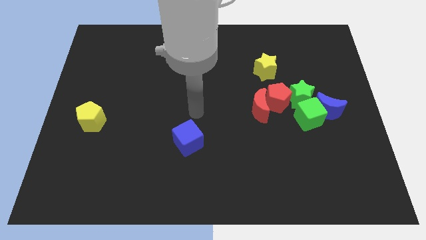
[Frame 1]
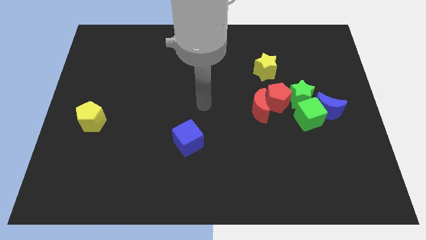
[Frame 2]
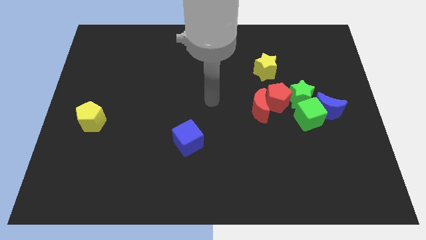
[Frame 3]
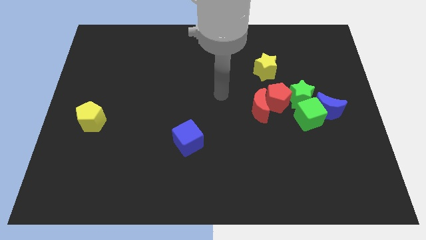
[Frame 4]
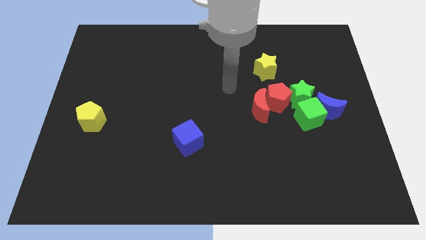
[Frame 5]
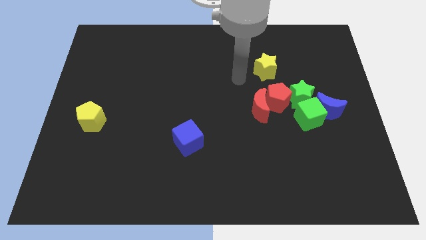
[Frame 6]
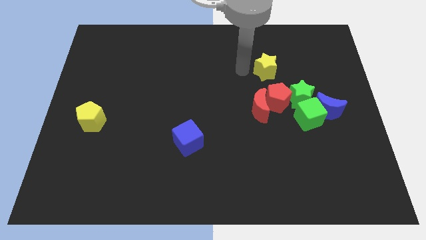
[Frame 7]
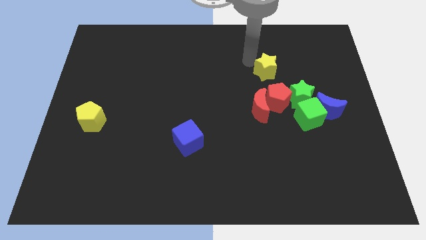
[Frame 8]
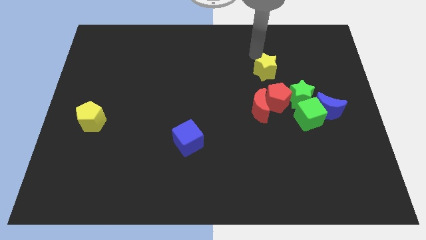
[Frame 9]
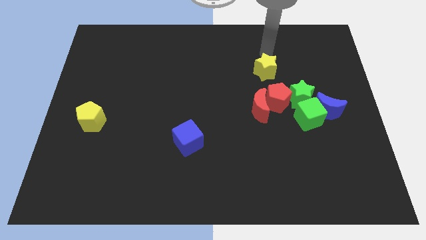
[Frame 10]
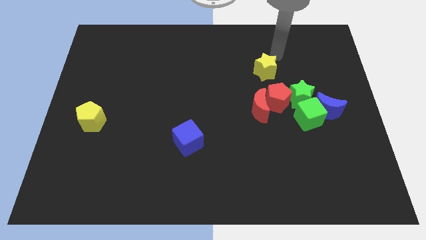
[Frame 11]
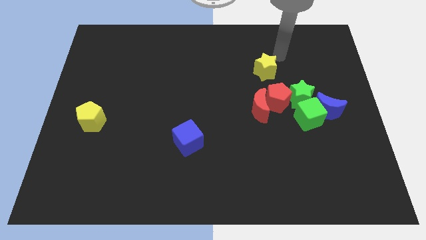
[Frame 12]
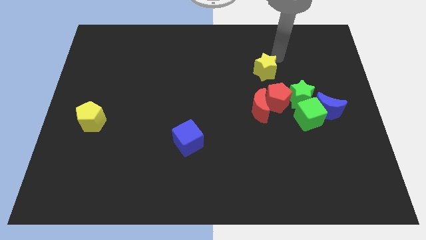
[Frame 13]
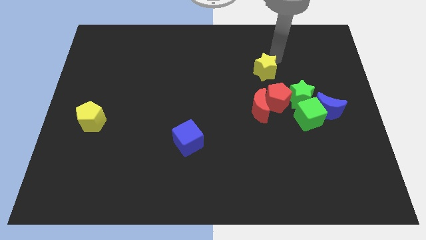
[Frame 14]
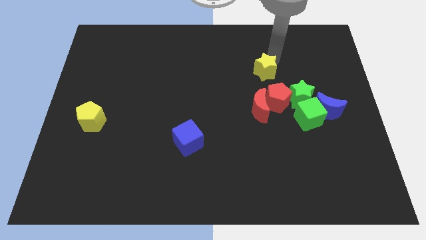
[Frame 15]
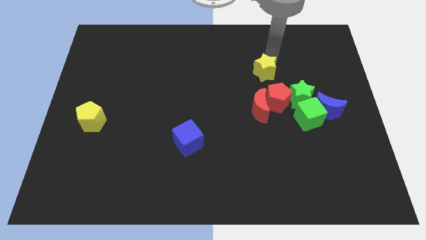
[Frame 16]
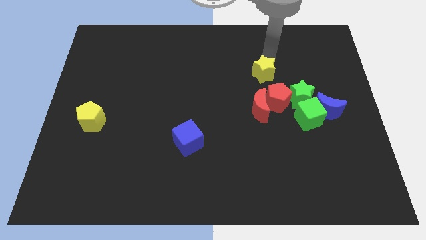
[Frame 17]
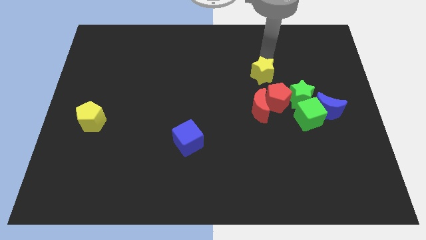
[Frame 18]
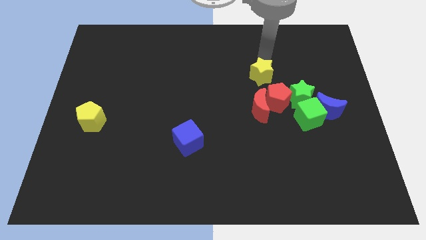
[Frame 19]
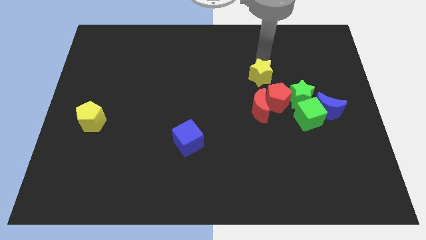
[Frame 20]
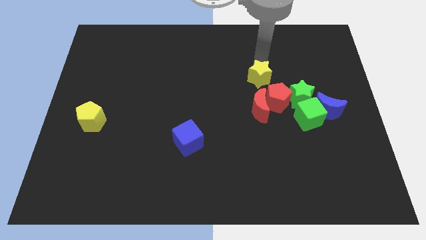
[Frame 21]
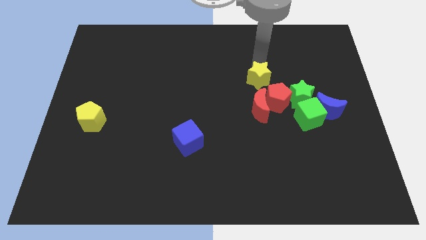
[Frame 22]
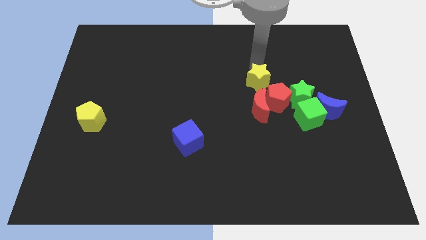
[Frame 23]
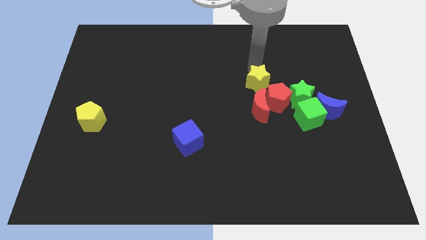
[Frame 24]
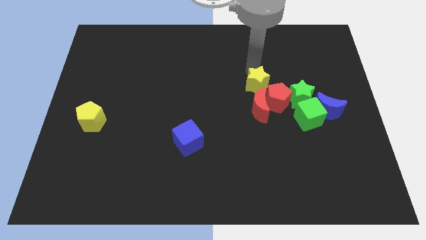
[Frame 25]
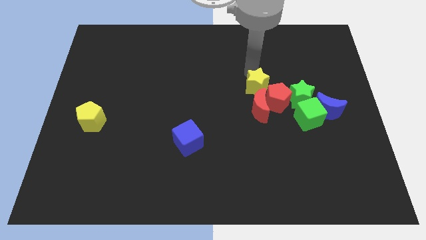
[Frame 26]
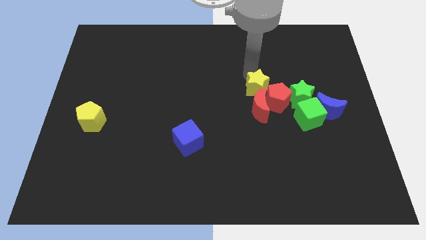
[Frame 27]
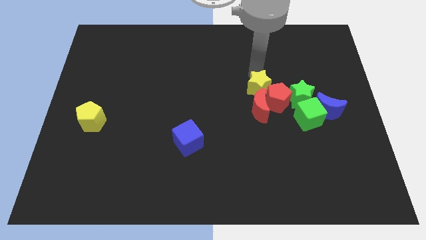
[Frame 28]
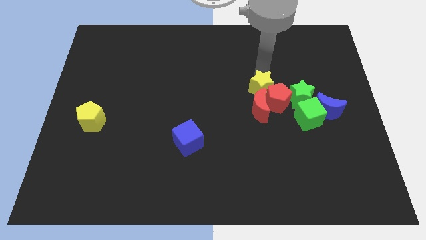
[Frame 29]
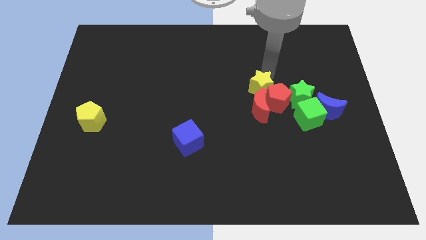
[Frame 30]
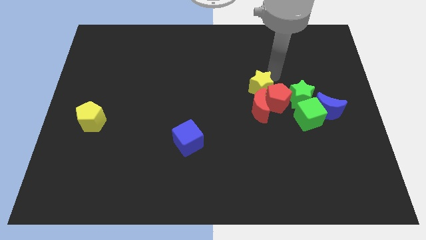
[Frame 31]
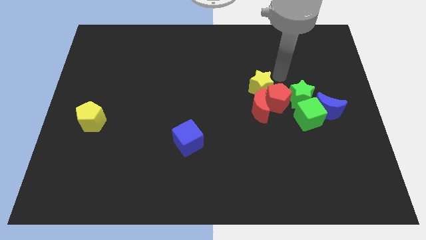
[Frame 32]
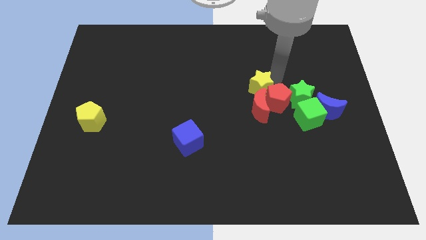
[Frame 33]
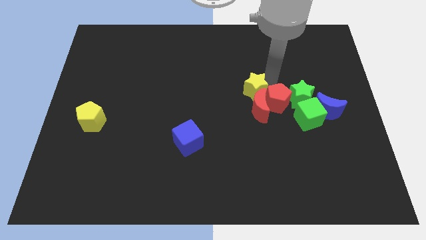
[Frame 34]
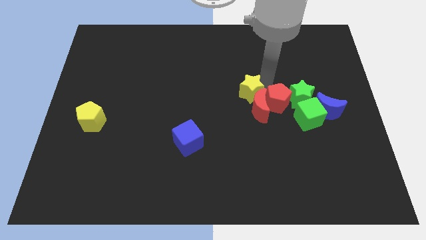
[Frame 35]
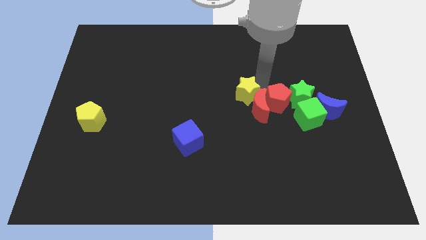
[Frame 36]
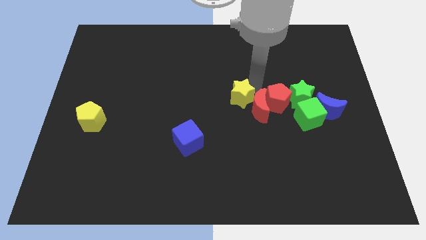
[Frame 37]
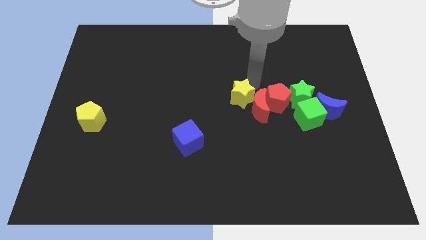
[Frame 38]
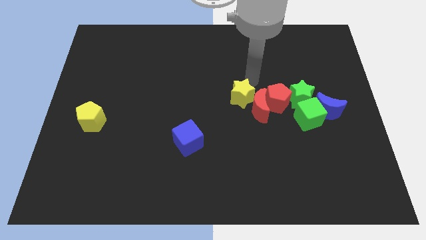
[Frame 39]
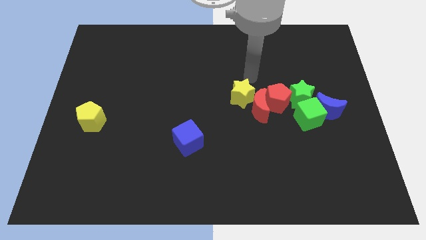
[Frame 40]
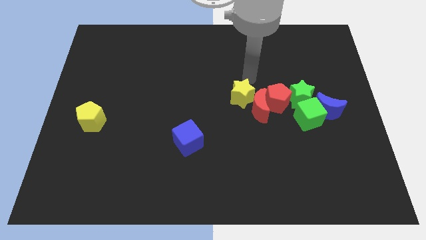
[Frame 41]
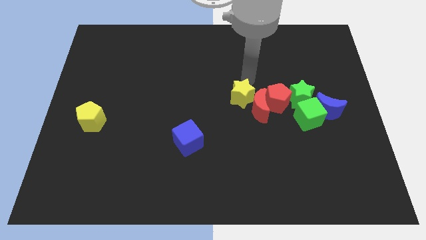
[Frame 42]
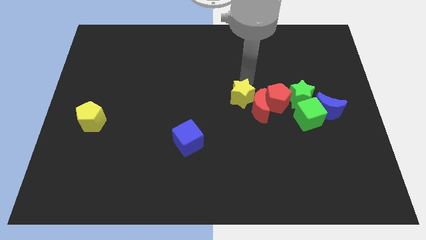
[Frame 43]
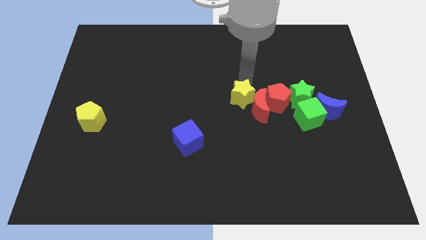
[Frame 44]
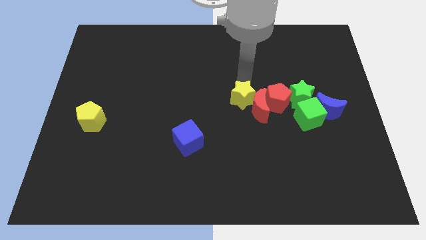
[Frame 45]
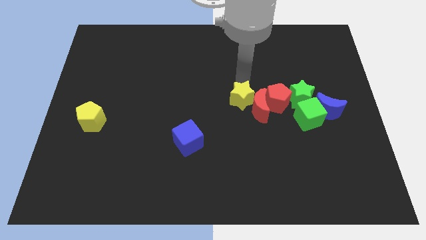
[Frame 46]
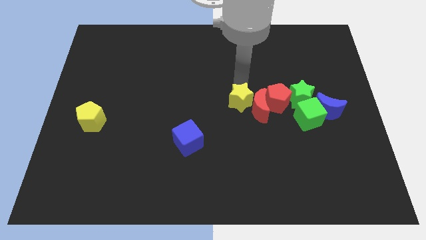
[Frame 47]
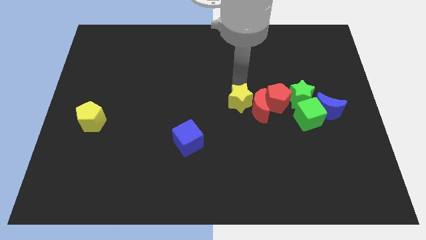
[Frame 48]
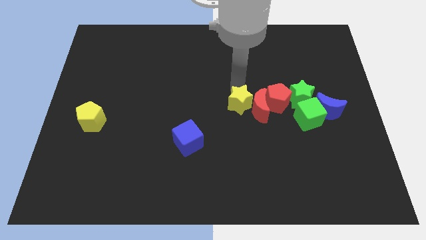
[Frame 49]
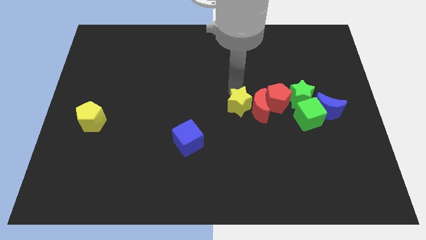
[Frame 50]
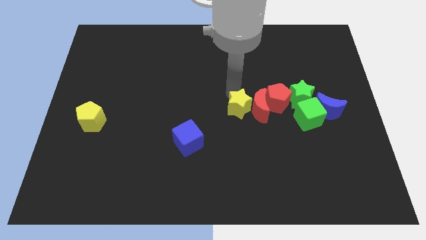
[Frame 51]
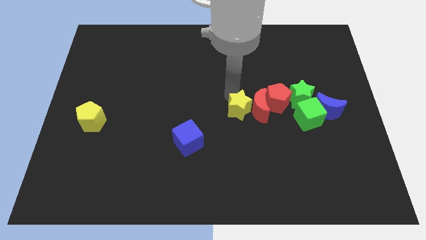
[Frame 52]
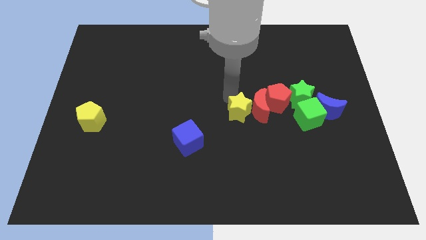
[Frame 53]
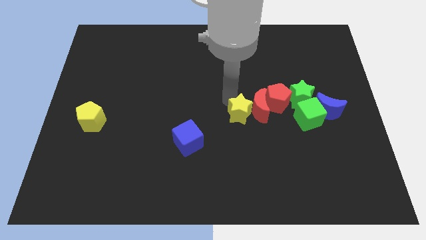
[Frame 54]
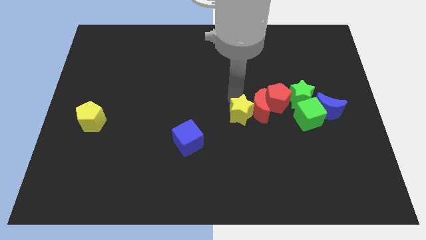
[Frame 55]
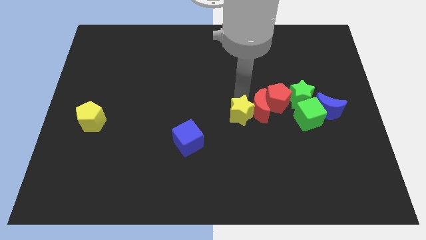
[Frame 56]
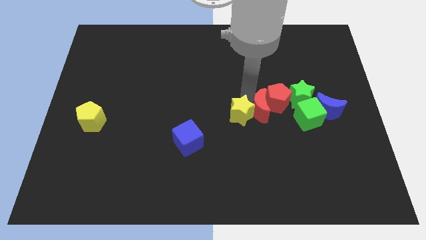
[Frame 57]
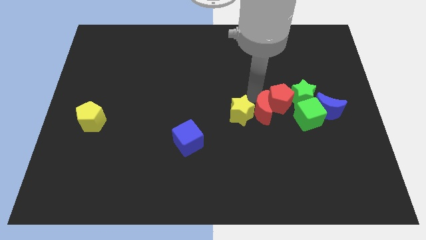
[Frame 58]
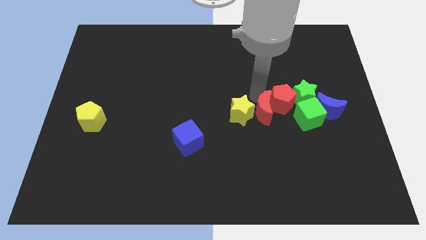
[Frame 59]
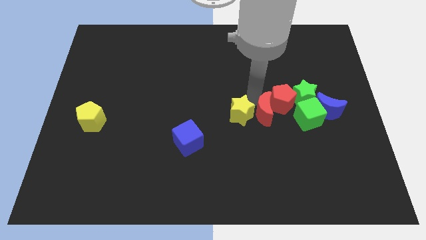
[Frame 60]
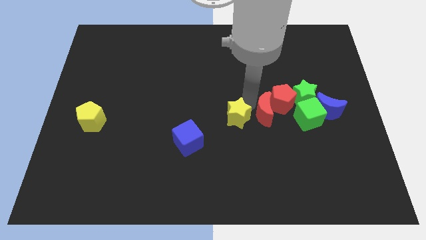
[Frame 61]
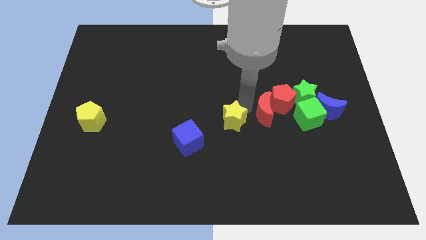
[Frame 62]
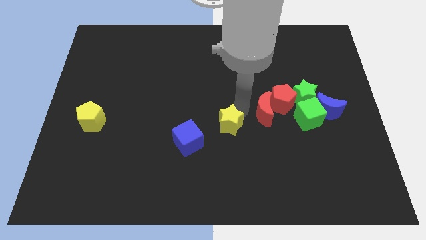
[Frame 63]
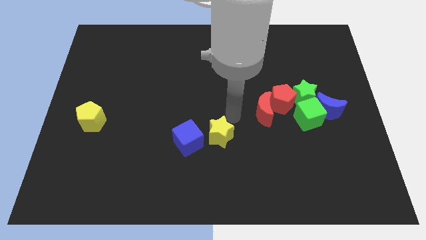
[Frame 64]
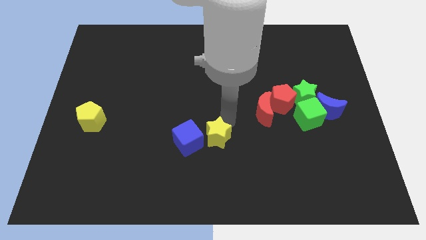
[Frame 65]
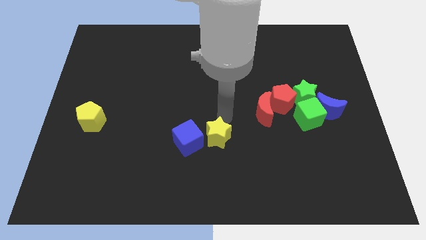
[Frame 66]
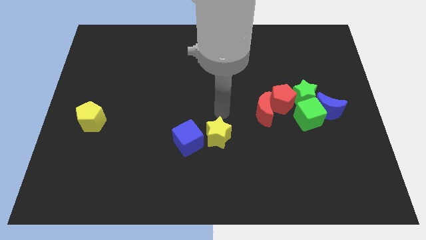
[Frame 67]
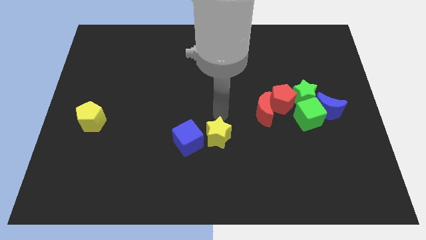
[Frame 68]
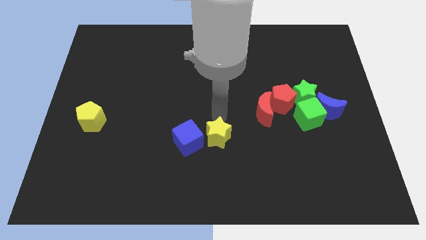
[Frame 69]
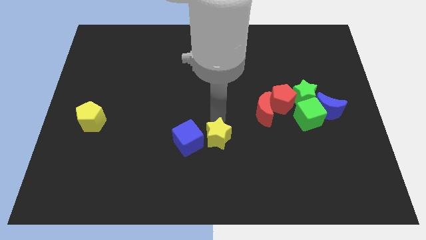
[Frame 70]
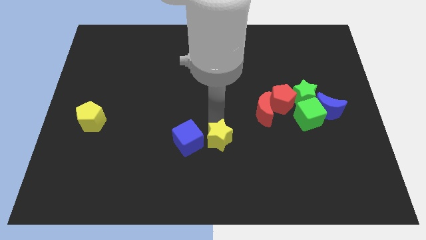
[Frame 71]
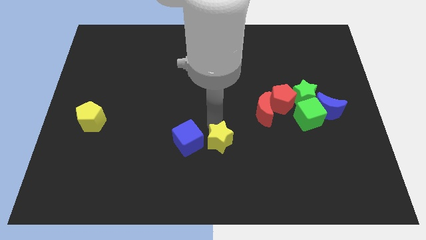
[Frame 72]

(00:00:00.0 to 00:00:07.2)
push the yellow star to the bottom right side of the blue cube
